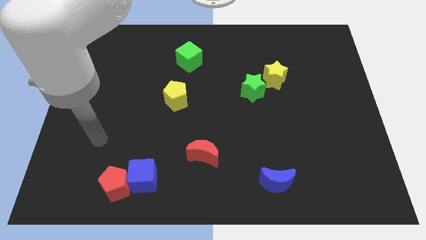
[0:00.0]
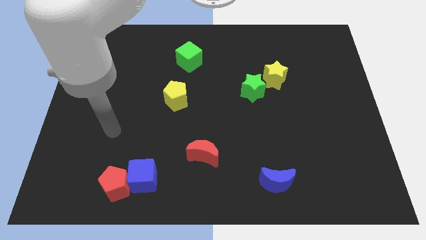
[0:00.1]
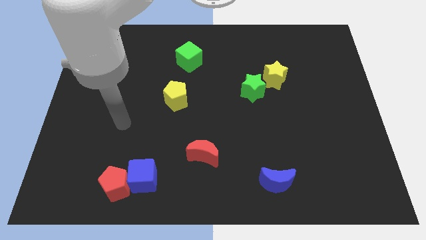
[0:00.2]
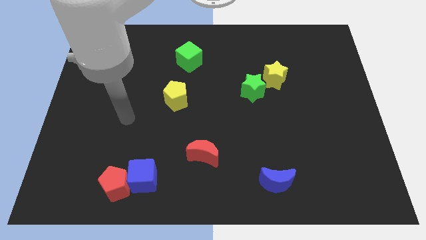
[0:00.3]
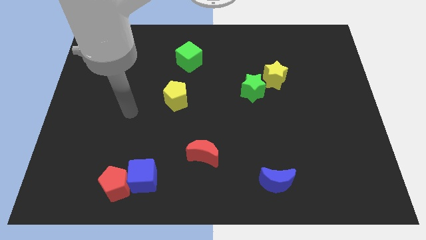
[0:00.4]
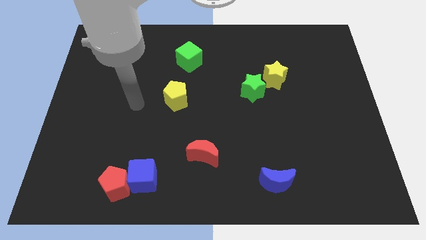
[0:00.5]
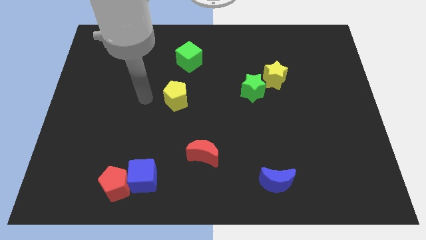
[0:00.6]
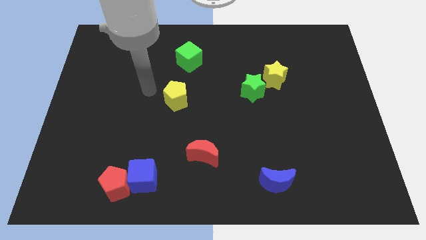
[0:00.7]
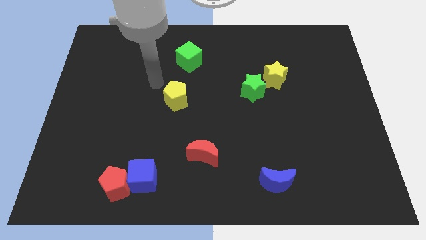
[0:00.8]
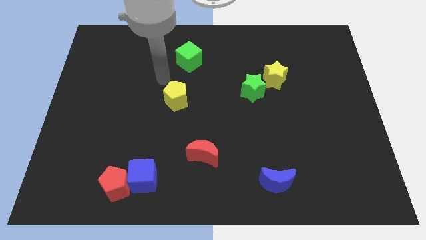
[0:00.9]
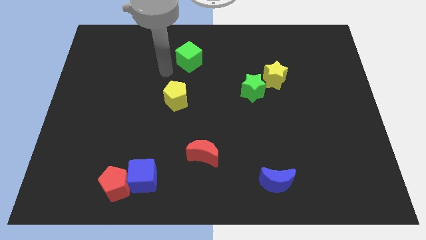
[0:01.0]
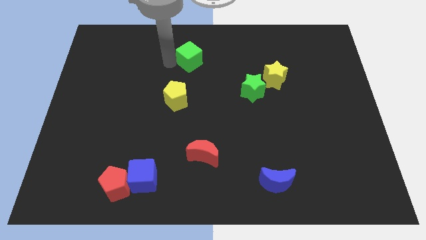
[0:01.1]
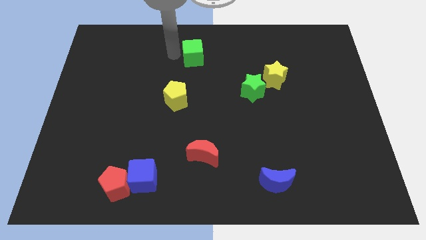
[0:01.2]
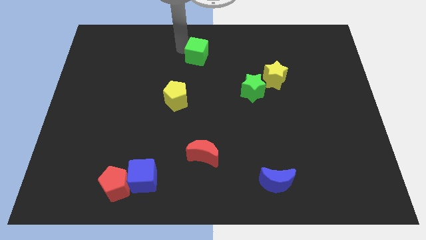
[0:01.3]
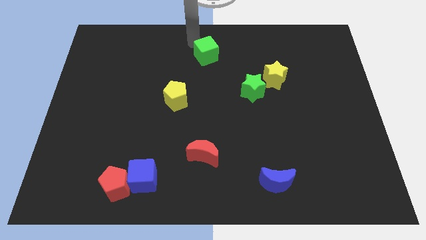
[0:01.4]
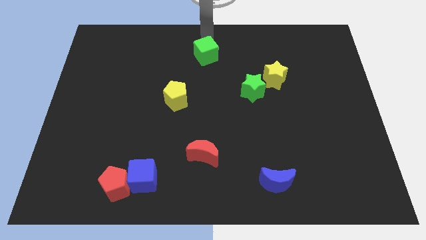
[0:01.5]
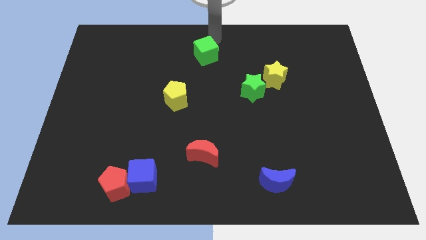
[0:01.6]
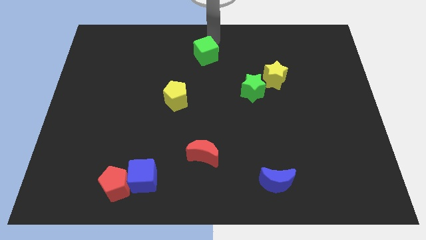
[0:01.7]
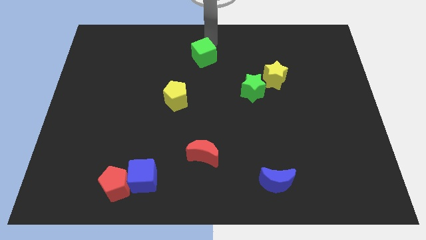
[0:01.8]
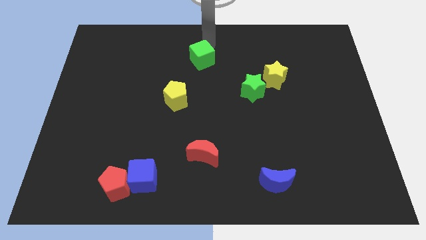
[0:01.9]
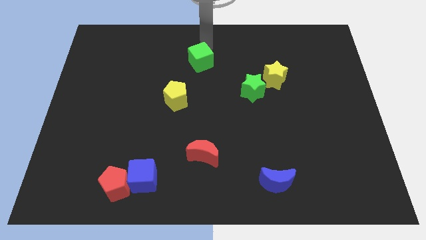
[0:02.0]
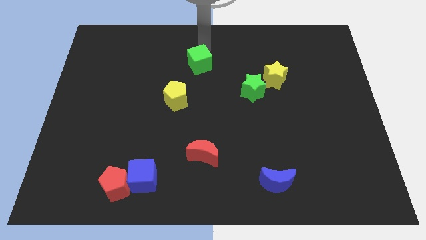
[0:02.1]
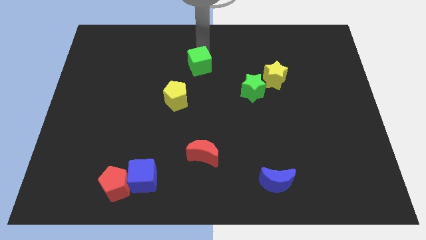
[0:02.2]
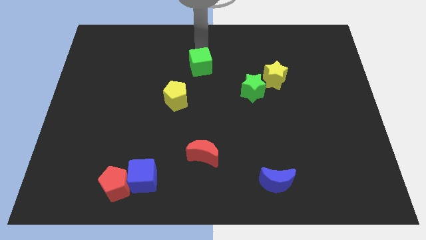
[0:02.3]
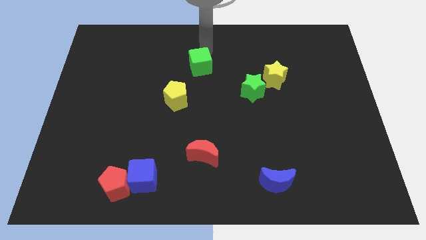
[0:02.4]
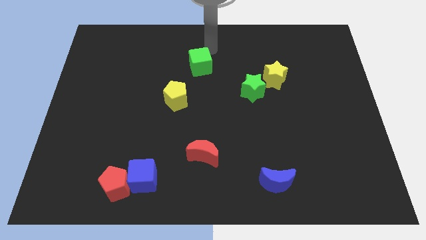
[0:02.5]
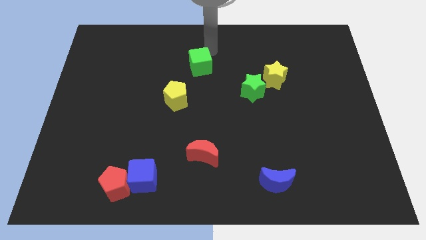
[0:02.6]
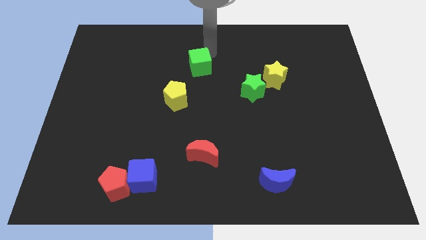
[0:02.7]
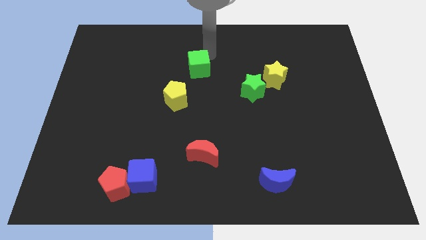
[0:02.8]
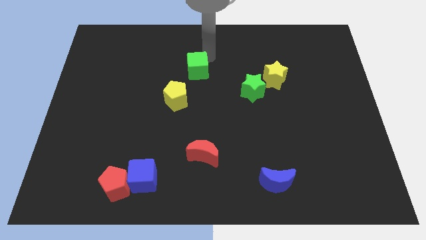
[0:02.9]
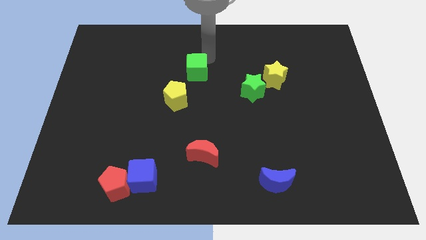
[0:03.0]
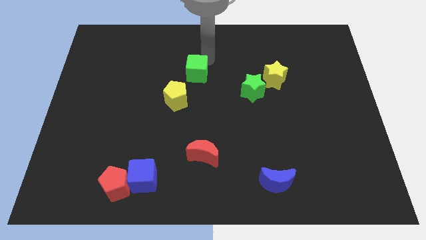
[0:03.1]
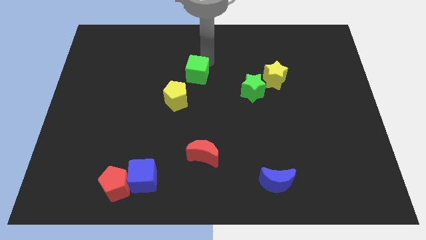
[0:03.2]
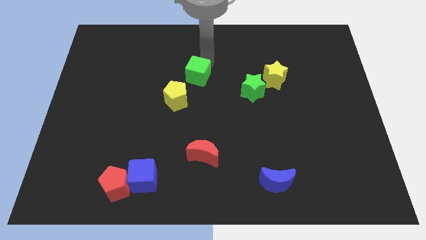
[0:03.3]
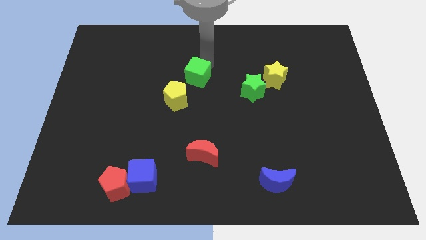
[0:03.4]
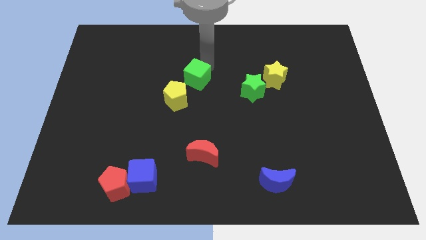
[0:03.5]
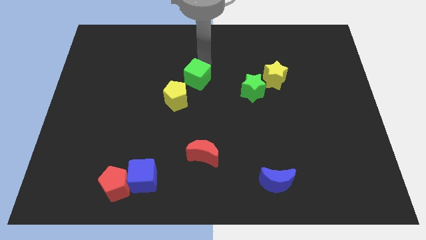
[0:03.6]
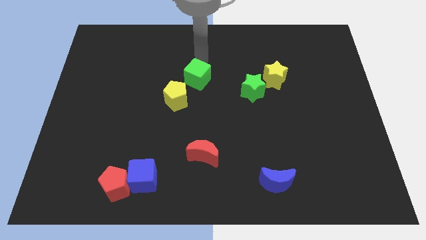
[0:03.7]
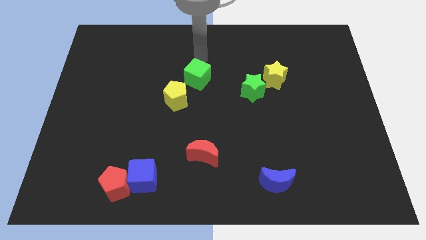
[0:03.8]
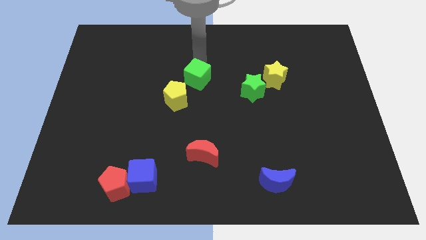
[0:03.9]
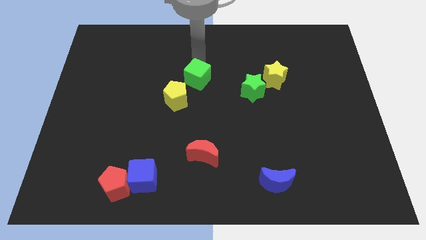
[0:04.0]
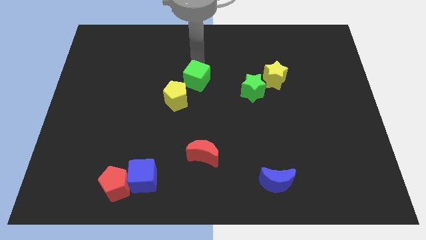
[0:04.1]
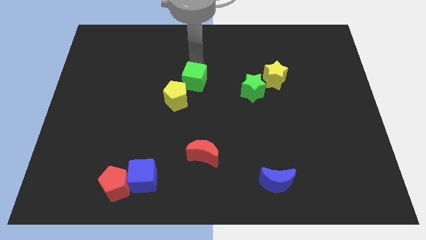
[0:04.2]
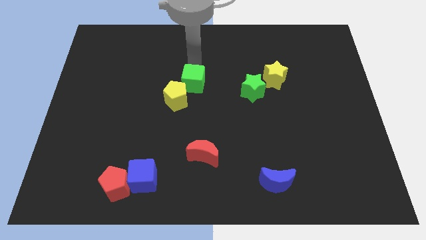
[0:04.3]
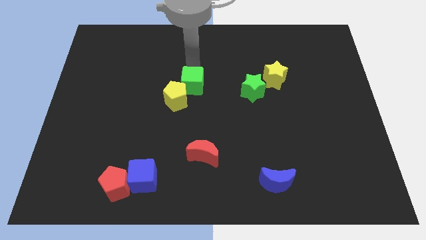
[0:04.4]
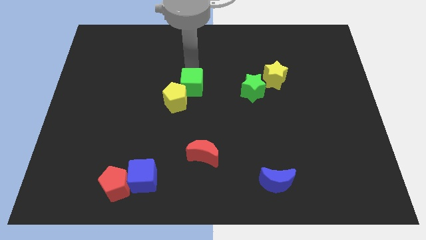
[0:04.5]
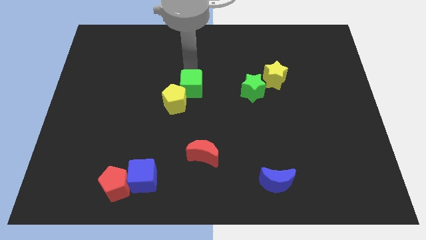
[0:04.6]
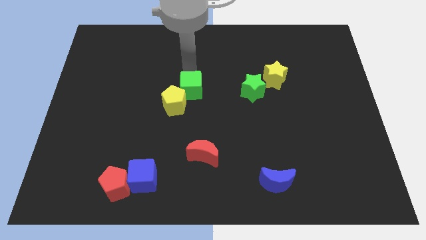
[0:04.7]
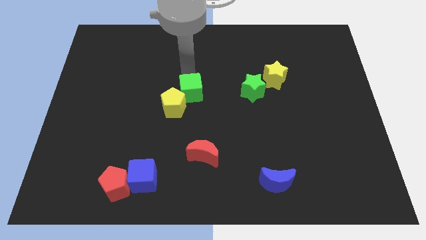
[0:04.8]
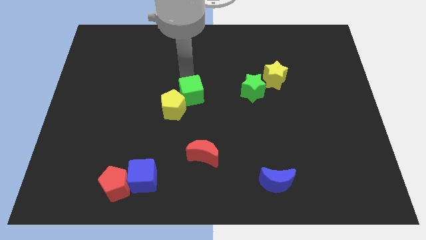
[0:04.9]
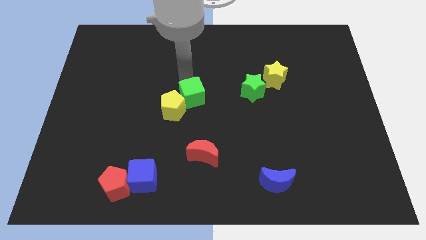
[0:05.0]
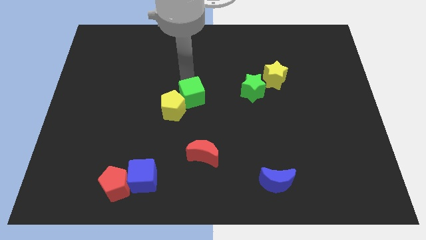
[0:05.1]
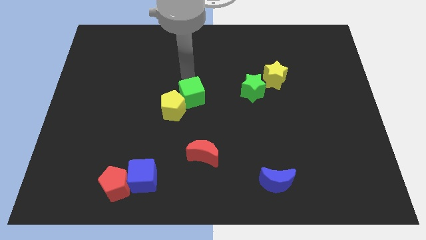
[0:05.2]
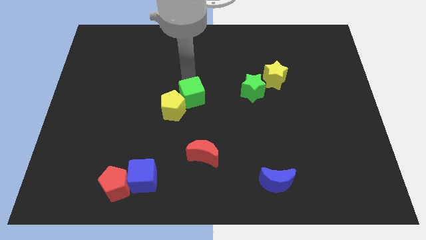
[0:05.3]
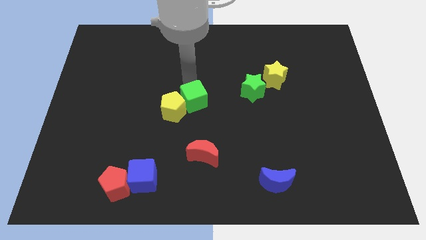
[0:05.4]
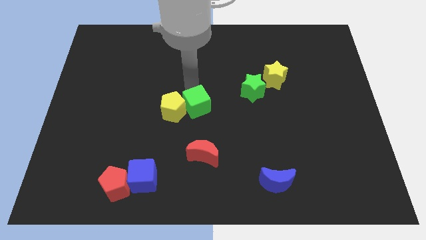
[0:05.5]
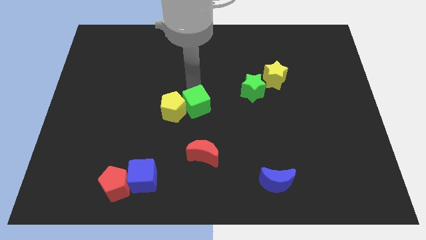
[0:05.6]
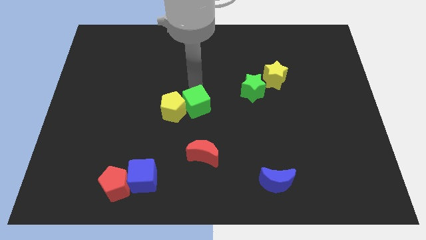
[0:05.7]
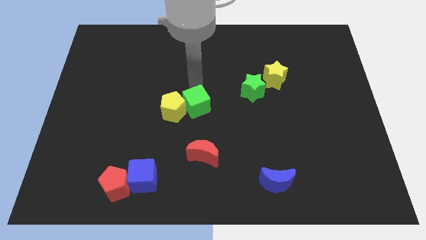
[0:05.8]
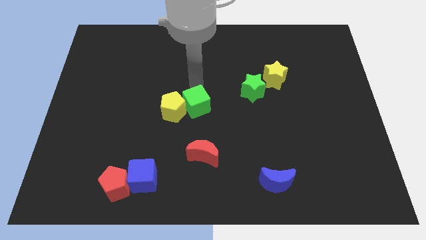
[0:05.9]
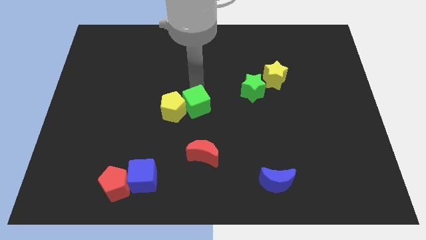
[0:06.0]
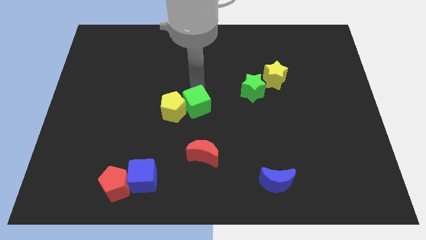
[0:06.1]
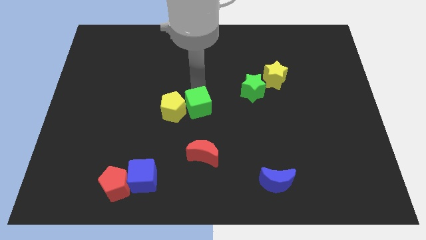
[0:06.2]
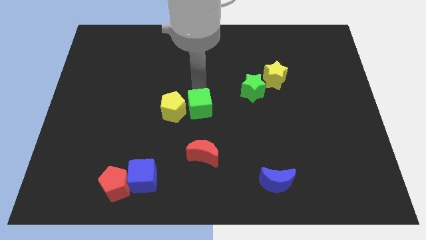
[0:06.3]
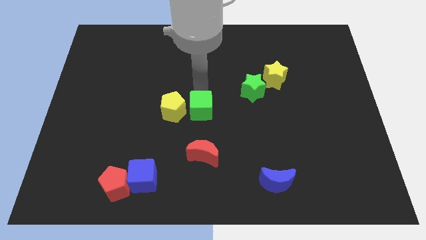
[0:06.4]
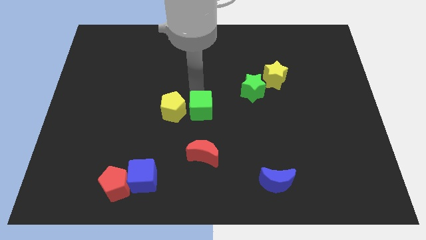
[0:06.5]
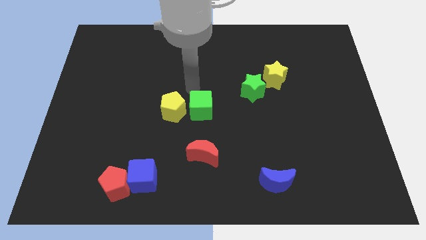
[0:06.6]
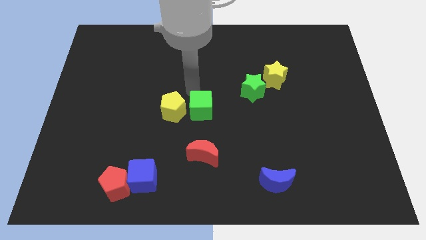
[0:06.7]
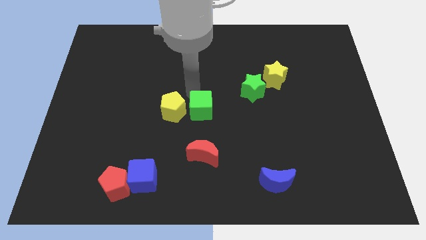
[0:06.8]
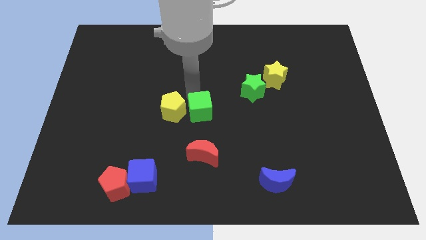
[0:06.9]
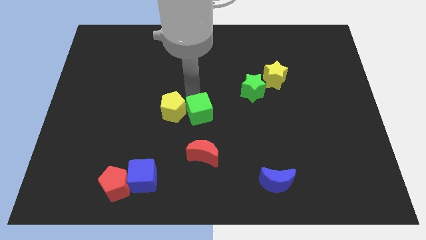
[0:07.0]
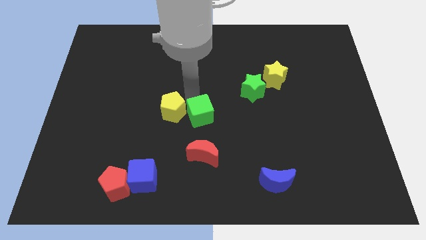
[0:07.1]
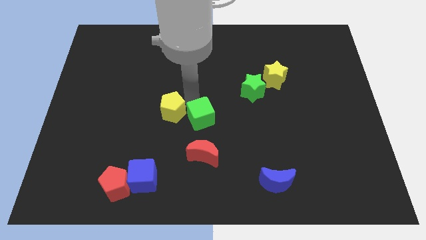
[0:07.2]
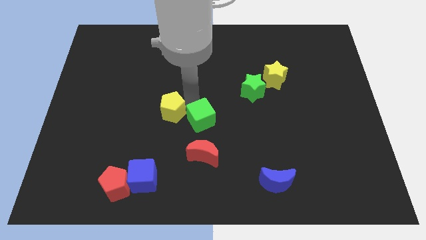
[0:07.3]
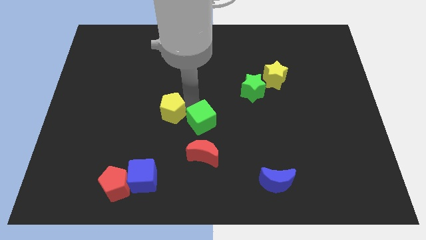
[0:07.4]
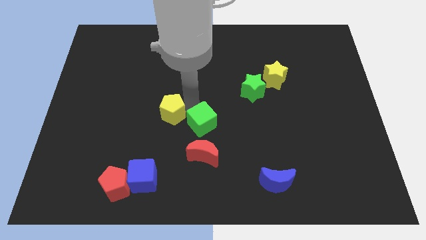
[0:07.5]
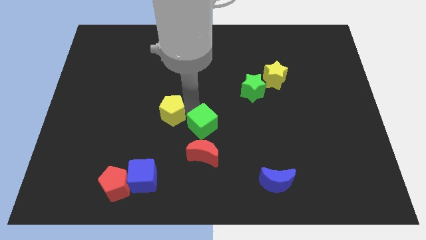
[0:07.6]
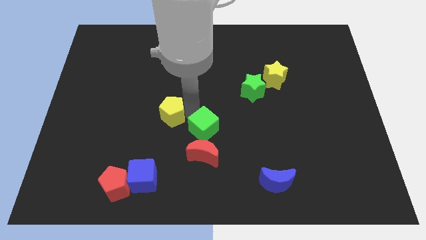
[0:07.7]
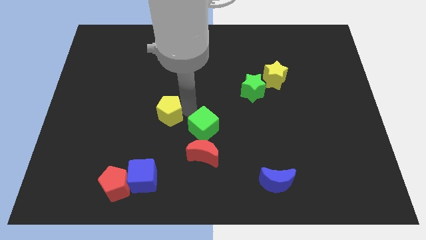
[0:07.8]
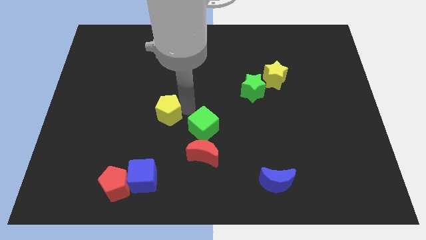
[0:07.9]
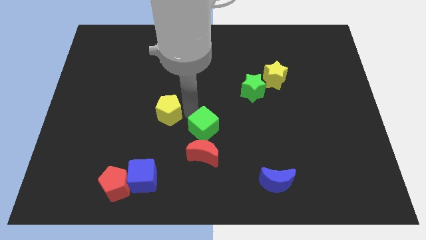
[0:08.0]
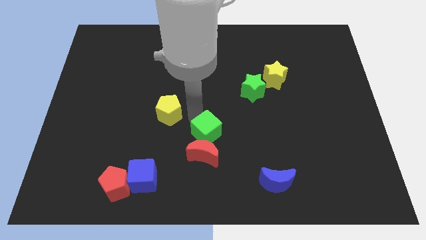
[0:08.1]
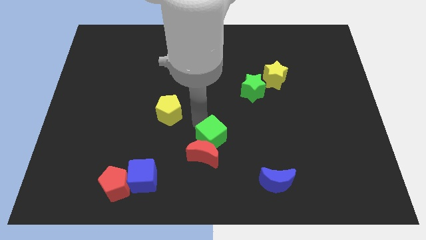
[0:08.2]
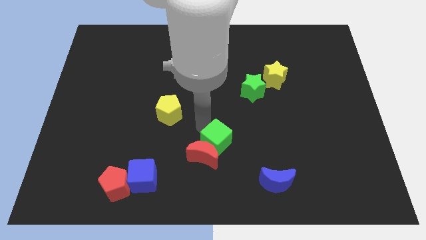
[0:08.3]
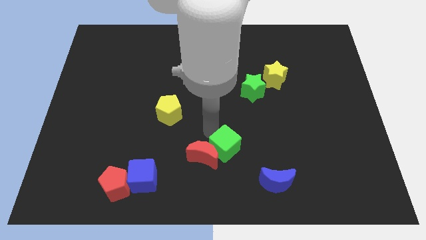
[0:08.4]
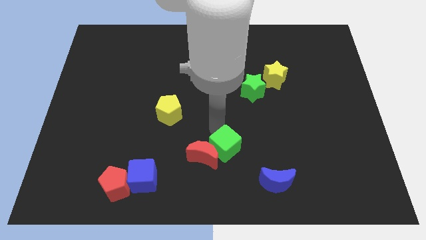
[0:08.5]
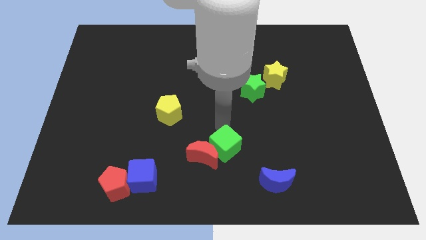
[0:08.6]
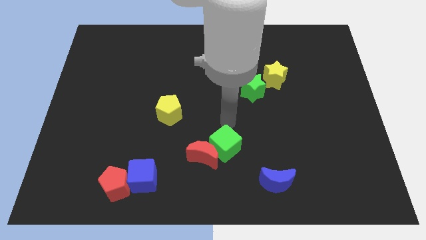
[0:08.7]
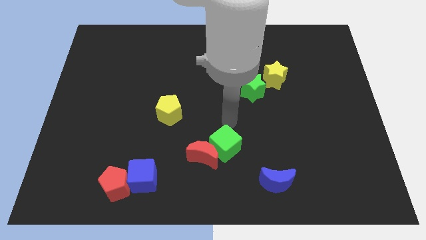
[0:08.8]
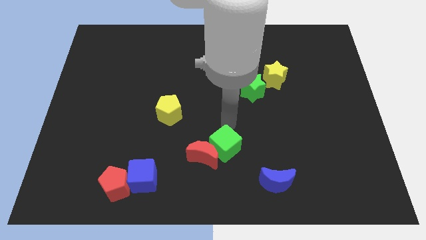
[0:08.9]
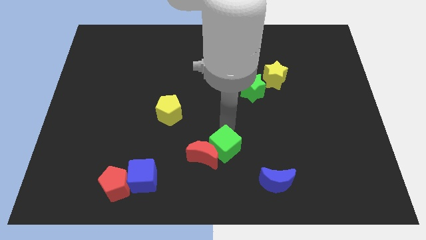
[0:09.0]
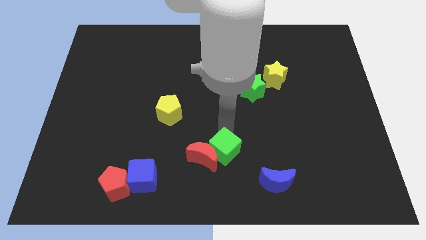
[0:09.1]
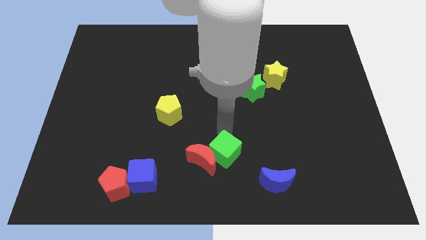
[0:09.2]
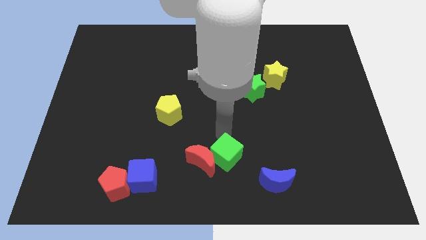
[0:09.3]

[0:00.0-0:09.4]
put the green cube to the bottom side
